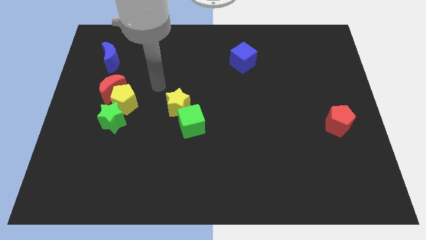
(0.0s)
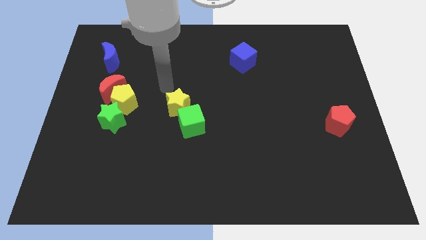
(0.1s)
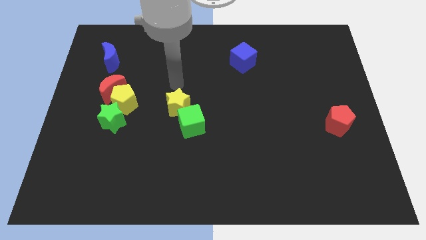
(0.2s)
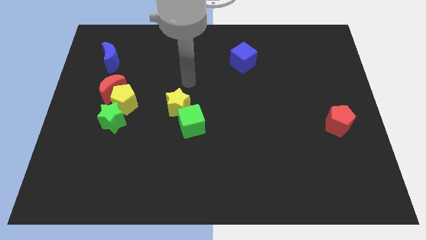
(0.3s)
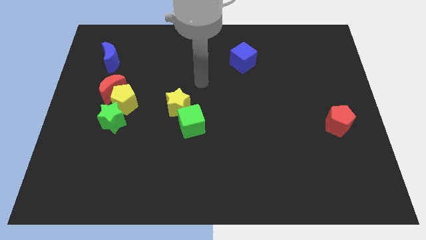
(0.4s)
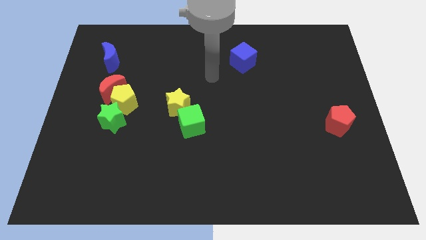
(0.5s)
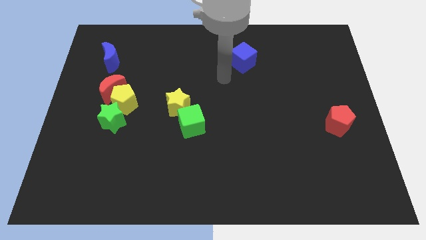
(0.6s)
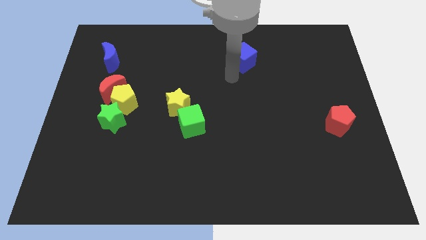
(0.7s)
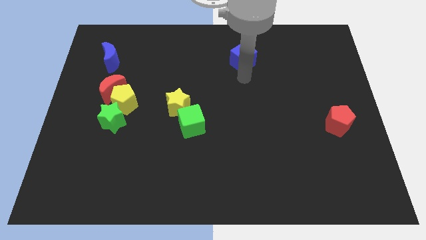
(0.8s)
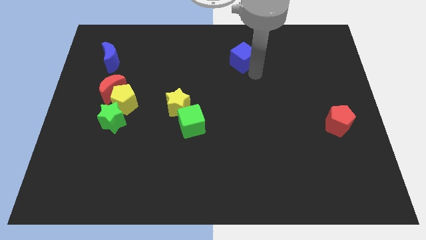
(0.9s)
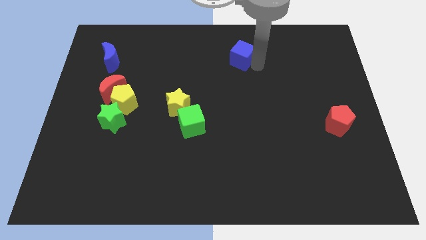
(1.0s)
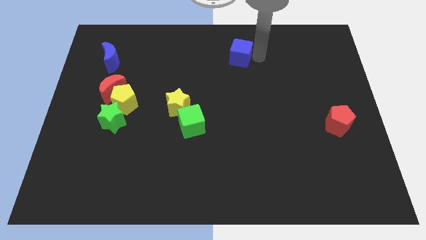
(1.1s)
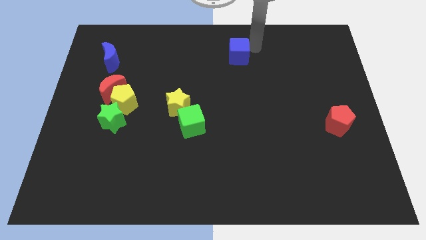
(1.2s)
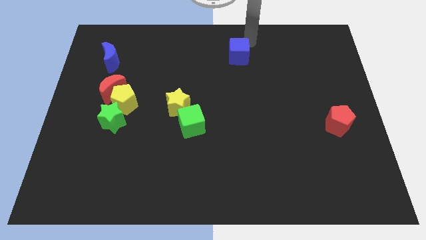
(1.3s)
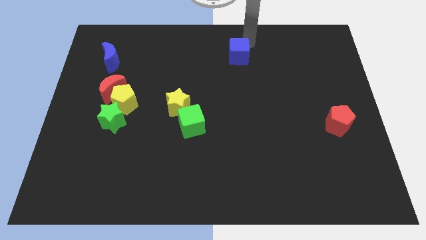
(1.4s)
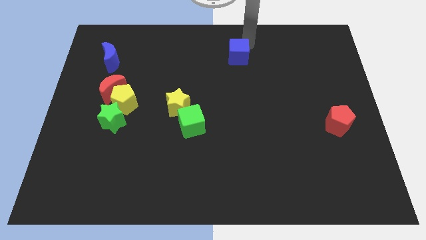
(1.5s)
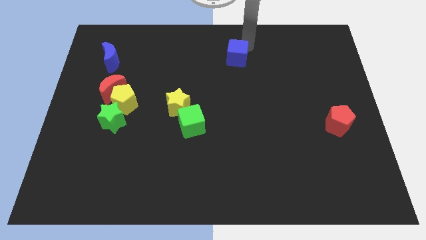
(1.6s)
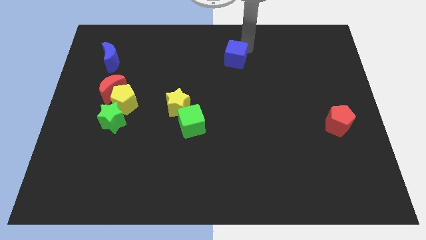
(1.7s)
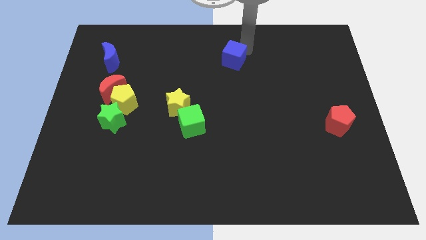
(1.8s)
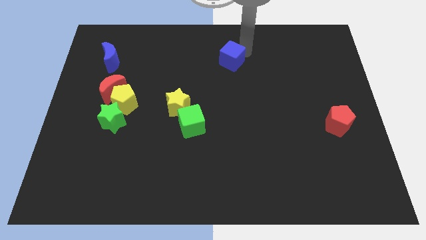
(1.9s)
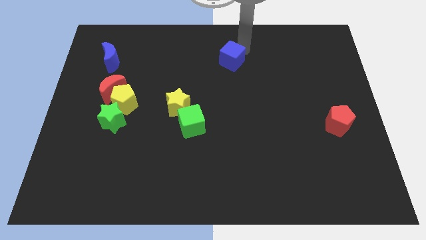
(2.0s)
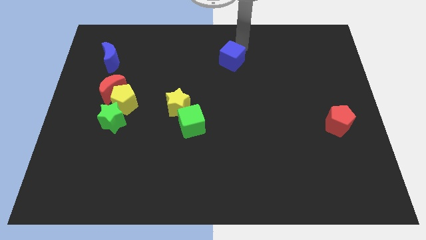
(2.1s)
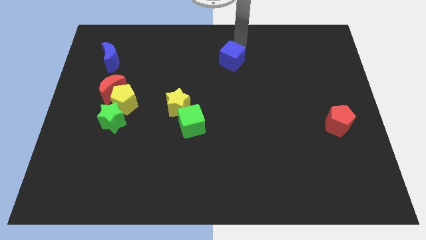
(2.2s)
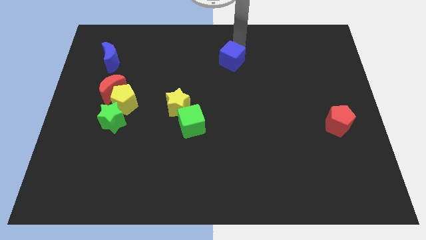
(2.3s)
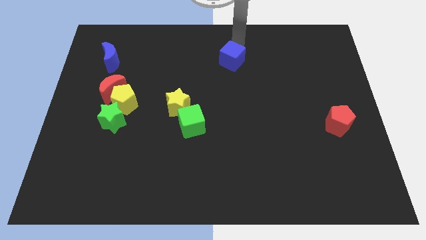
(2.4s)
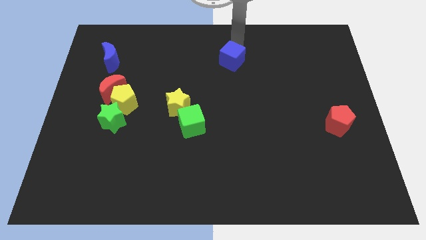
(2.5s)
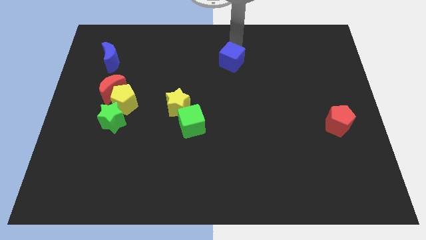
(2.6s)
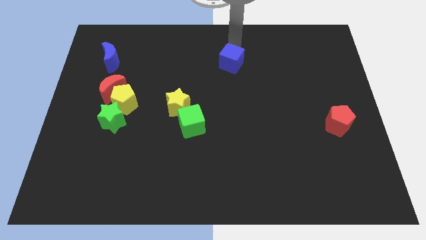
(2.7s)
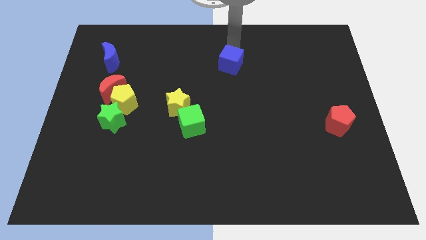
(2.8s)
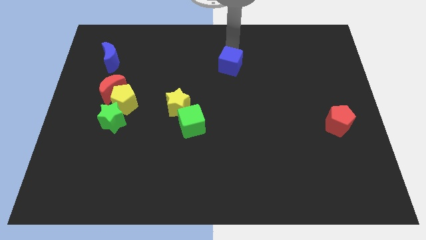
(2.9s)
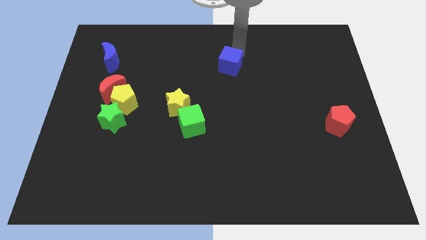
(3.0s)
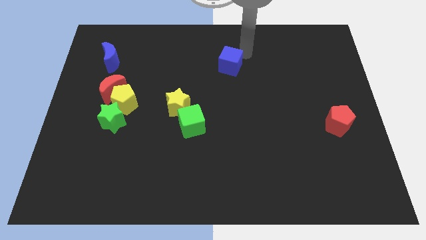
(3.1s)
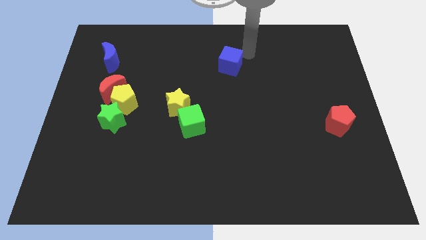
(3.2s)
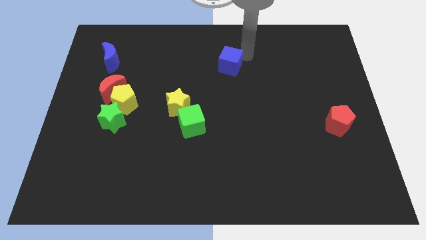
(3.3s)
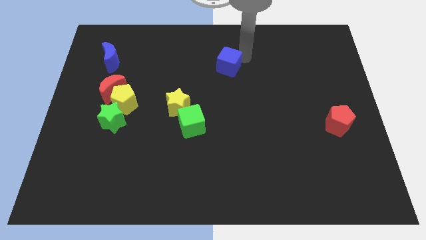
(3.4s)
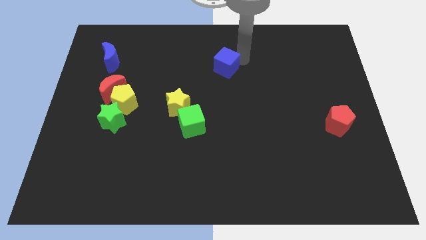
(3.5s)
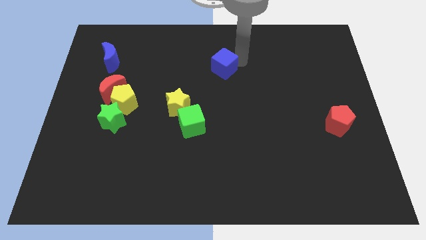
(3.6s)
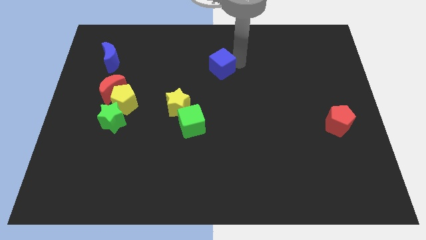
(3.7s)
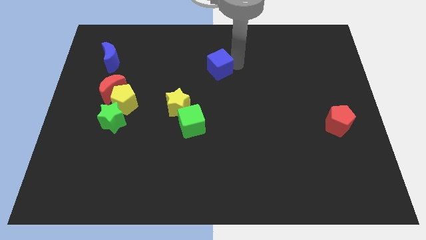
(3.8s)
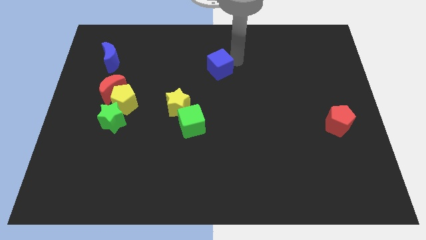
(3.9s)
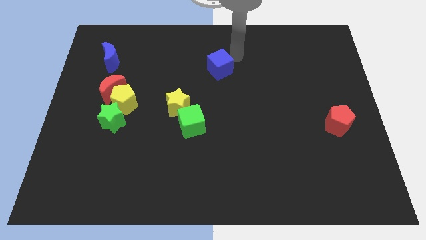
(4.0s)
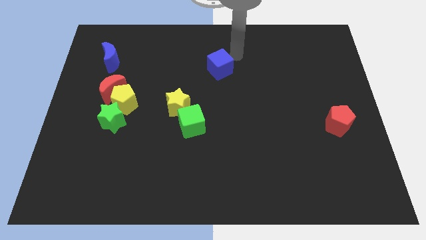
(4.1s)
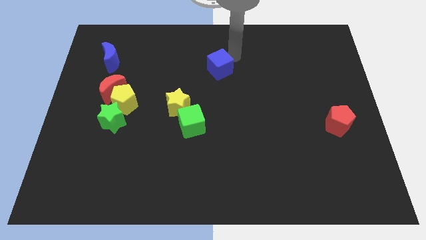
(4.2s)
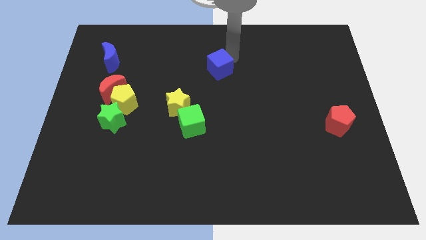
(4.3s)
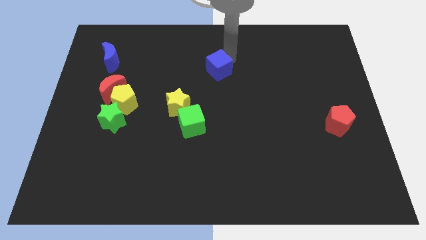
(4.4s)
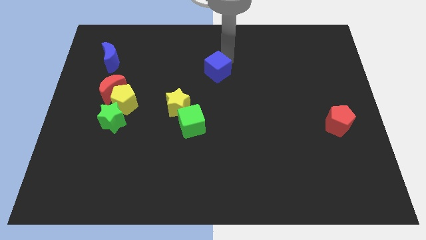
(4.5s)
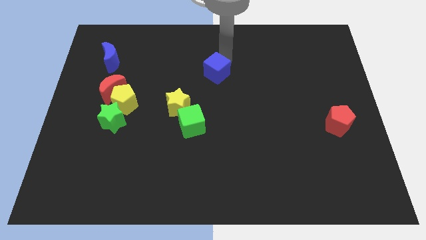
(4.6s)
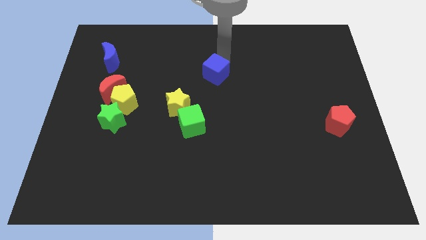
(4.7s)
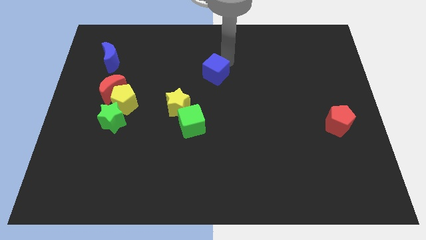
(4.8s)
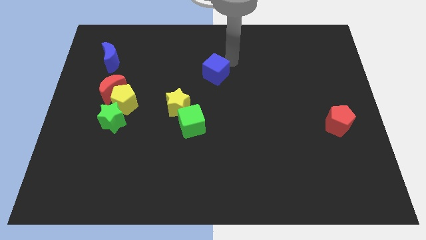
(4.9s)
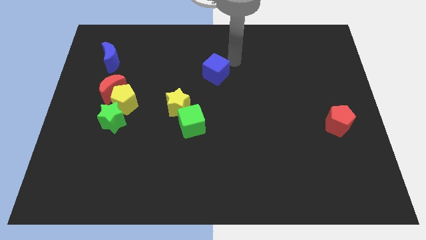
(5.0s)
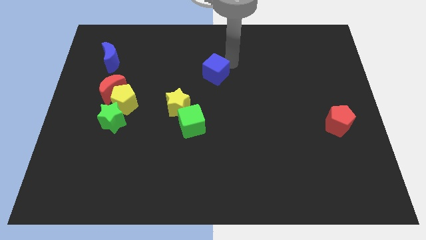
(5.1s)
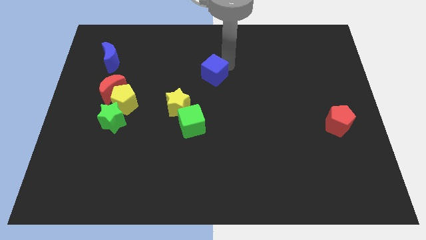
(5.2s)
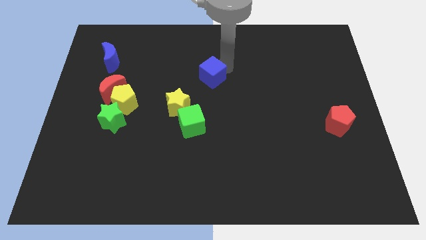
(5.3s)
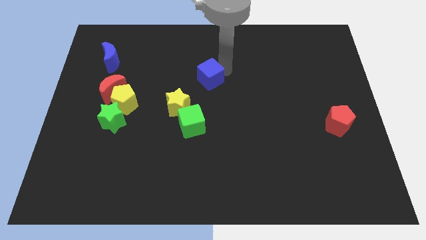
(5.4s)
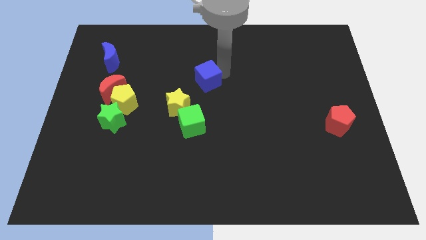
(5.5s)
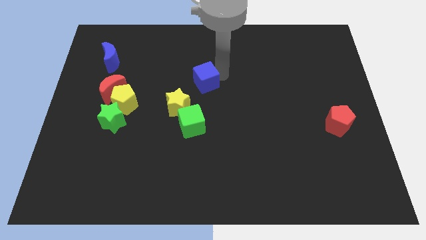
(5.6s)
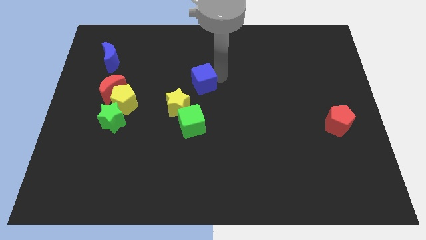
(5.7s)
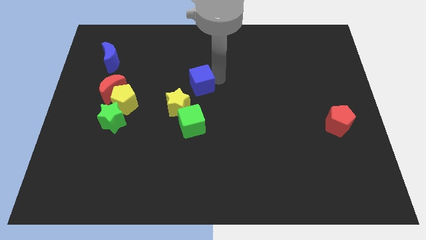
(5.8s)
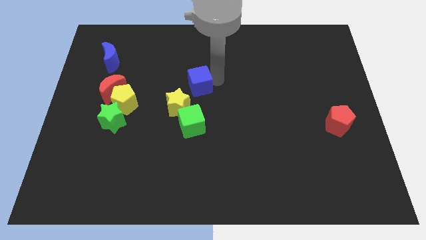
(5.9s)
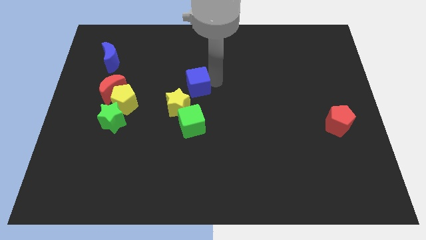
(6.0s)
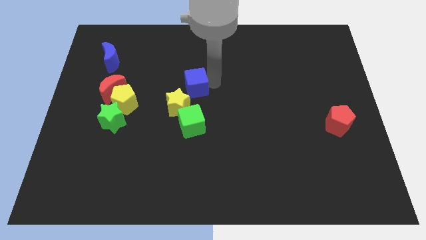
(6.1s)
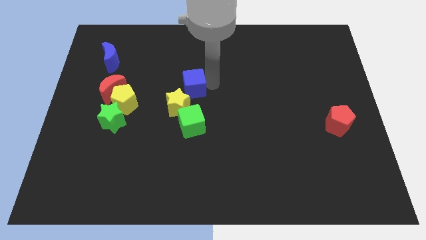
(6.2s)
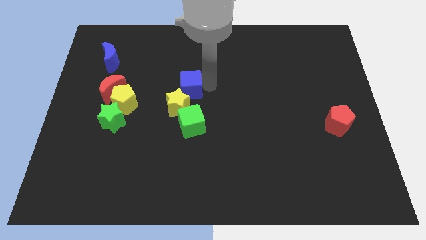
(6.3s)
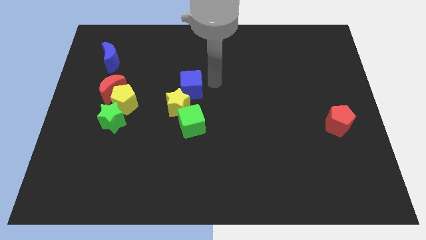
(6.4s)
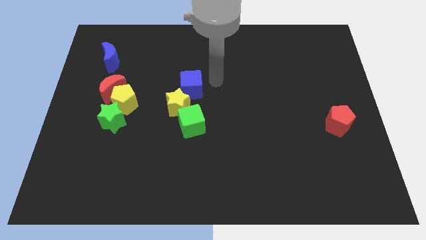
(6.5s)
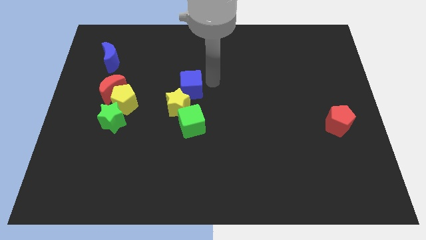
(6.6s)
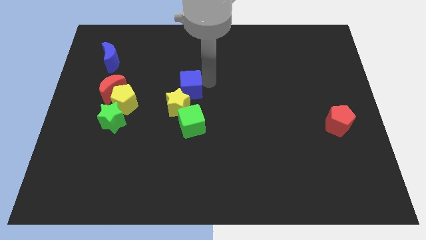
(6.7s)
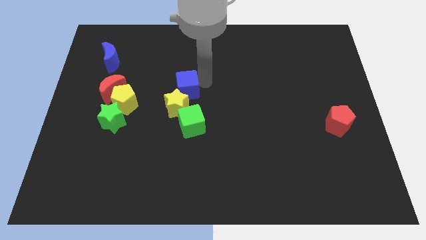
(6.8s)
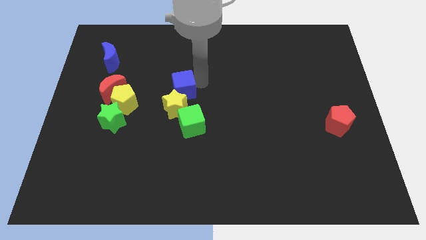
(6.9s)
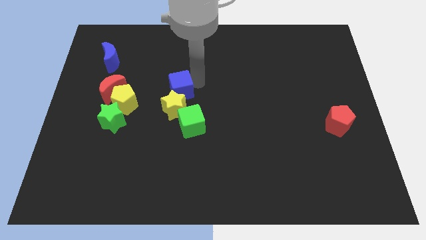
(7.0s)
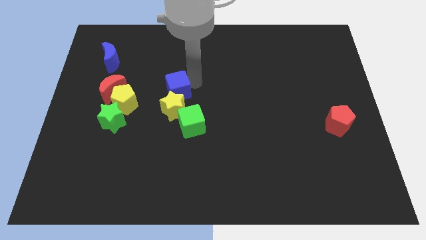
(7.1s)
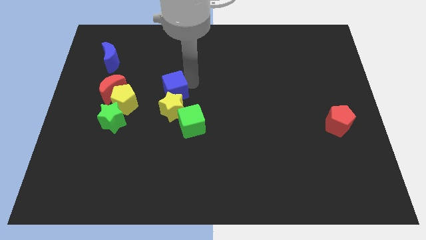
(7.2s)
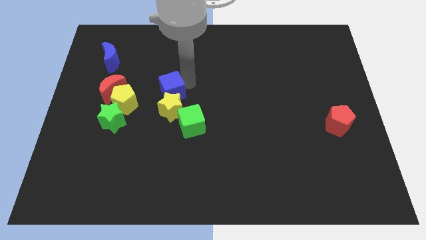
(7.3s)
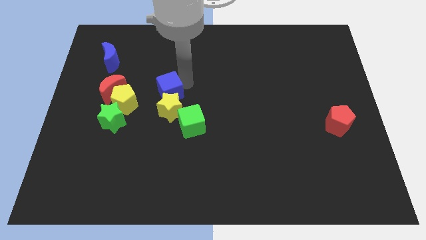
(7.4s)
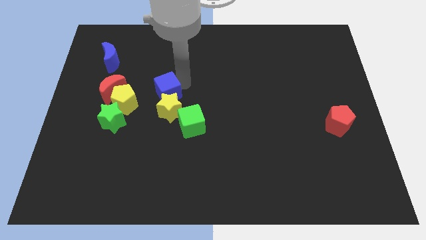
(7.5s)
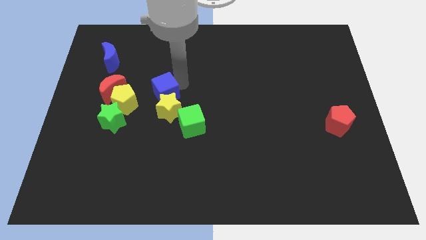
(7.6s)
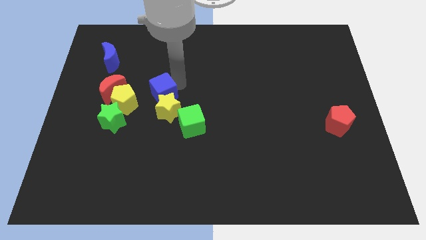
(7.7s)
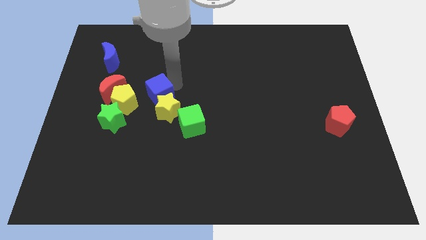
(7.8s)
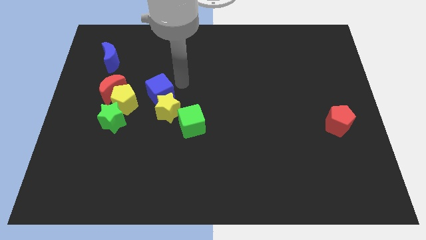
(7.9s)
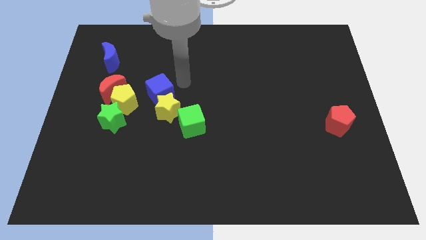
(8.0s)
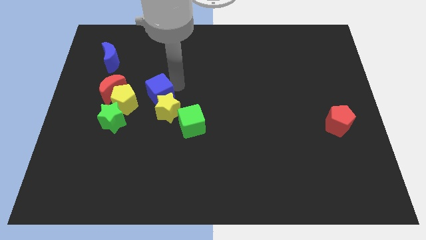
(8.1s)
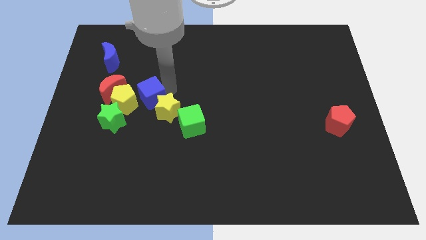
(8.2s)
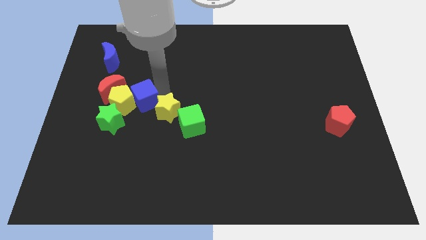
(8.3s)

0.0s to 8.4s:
put the blue cube diagonally down and to the right of the red moon
